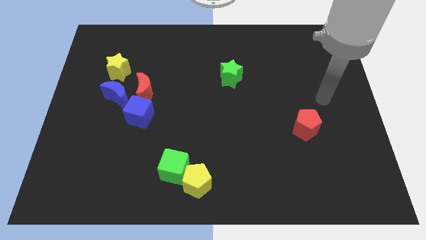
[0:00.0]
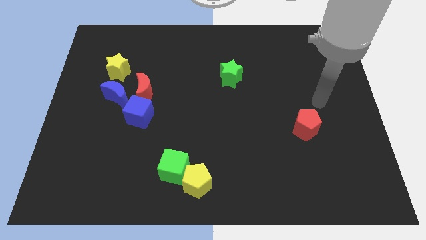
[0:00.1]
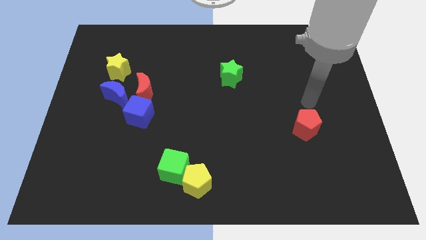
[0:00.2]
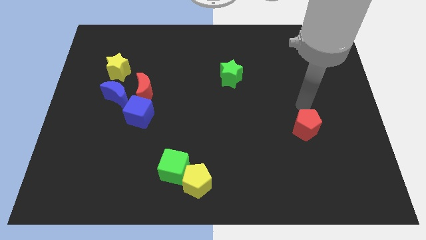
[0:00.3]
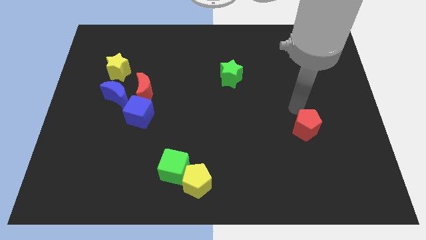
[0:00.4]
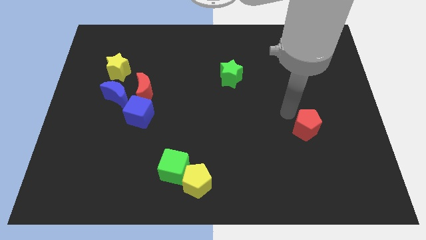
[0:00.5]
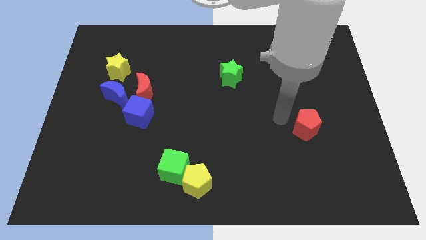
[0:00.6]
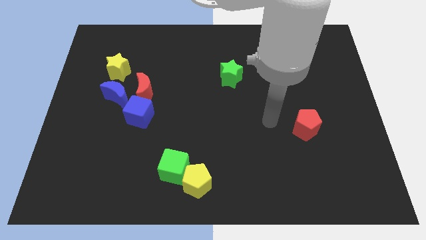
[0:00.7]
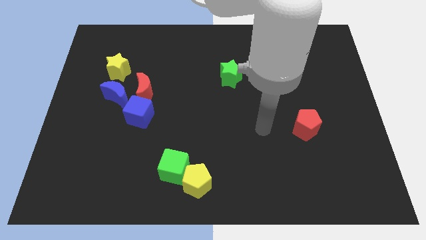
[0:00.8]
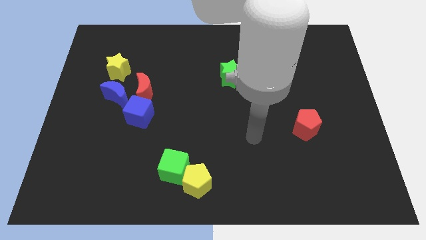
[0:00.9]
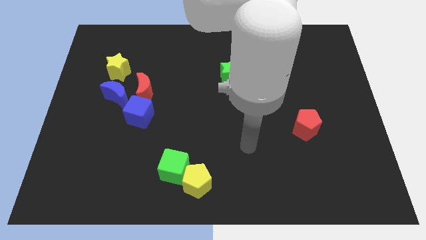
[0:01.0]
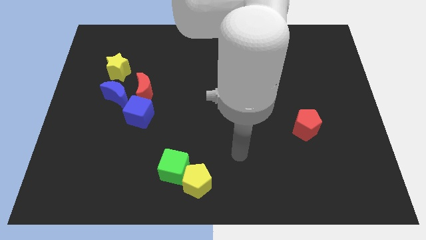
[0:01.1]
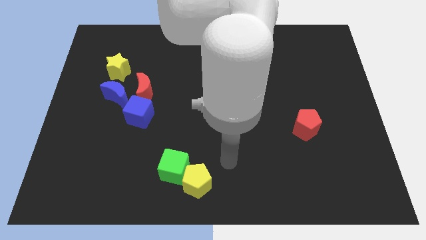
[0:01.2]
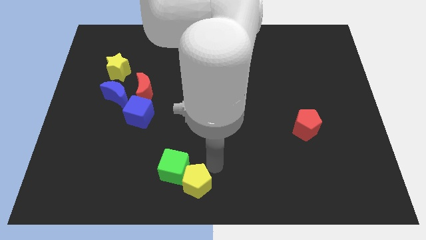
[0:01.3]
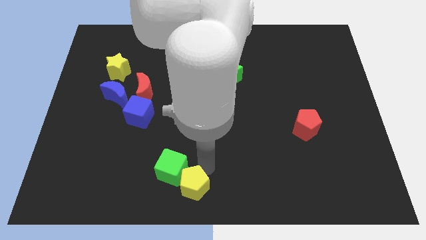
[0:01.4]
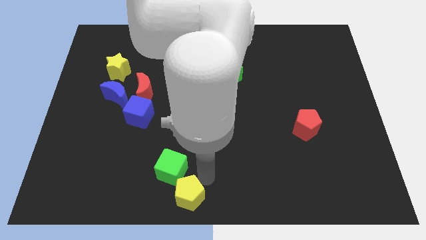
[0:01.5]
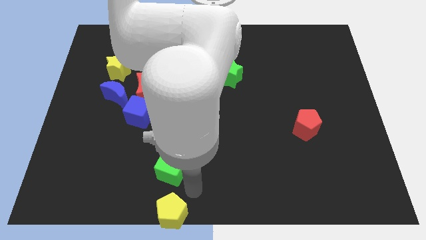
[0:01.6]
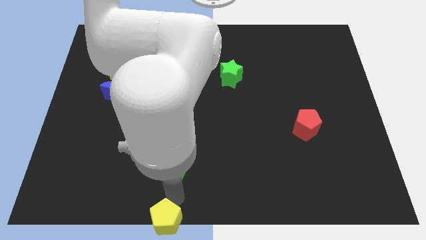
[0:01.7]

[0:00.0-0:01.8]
separate the green cube from the yellow pentagon

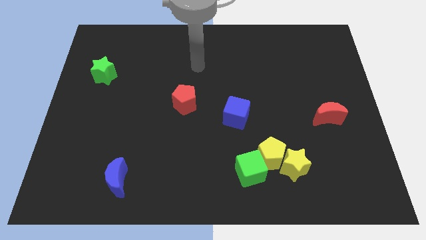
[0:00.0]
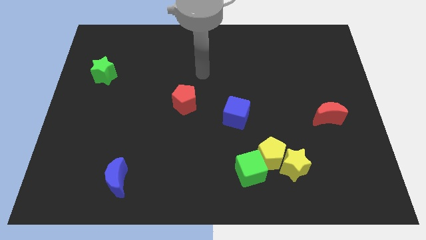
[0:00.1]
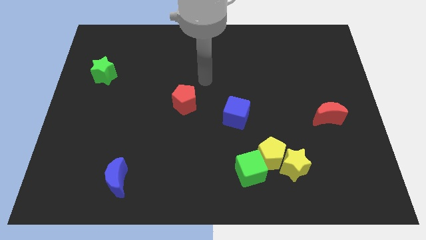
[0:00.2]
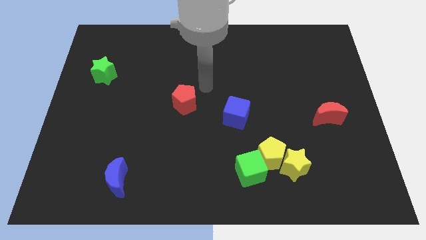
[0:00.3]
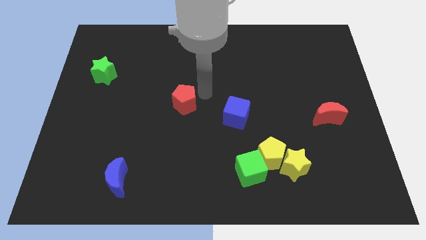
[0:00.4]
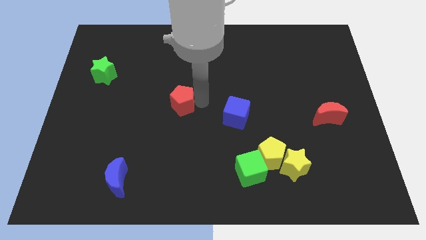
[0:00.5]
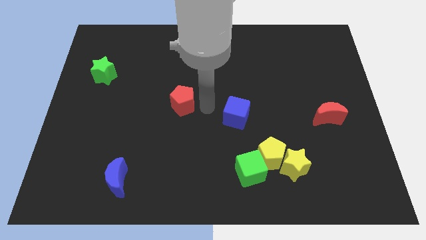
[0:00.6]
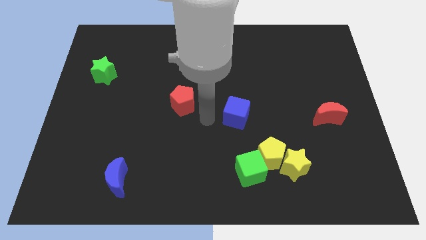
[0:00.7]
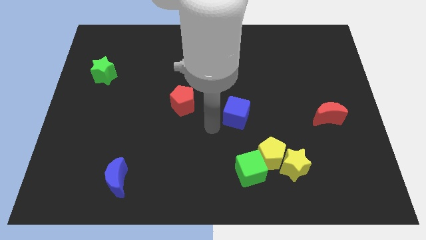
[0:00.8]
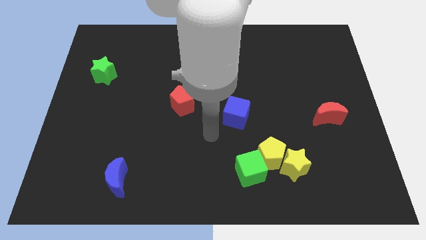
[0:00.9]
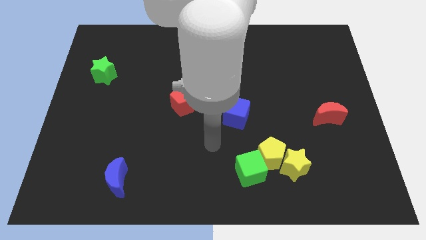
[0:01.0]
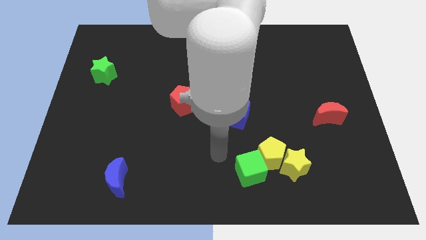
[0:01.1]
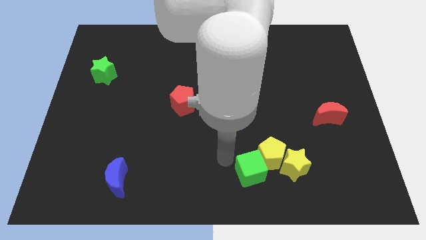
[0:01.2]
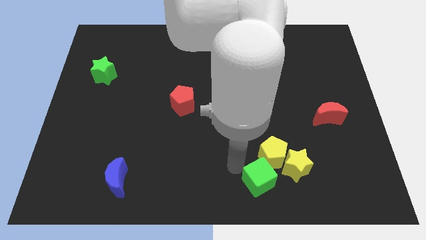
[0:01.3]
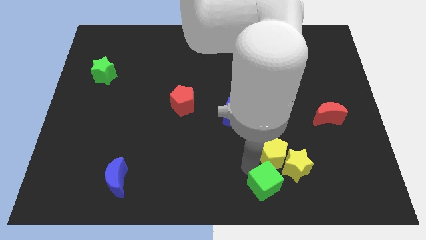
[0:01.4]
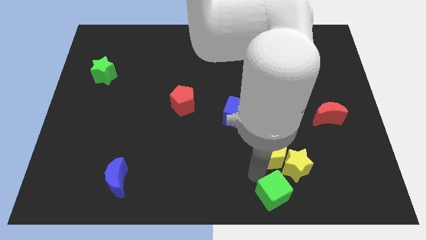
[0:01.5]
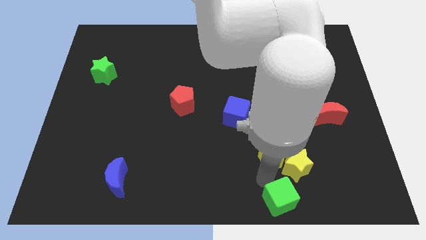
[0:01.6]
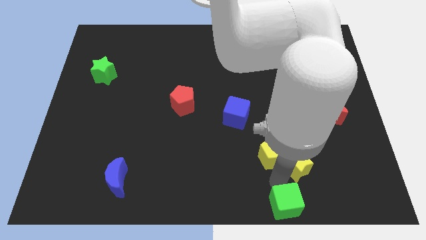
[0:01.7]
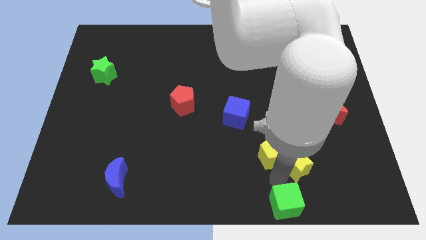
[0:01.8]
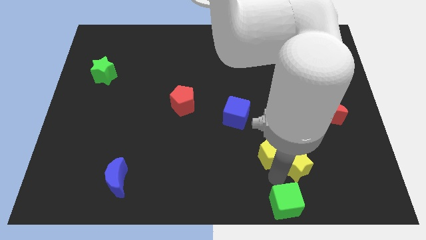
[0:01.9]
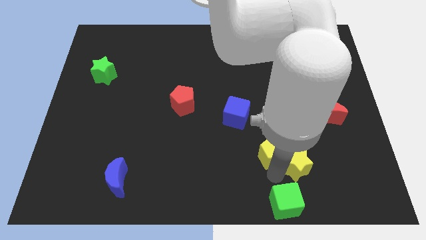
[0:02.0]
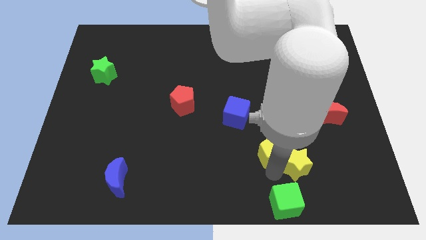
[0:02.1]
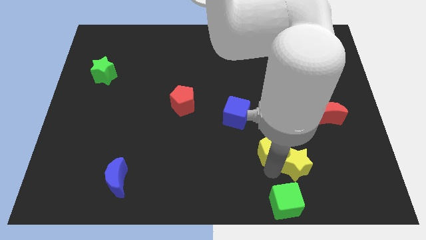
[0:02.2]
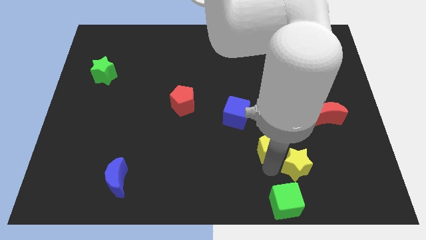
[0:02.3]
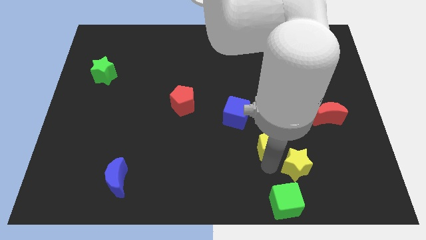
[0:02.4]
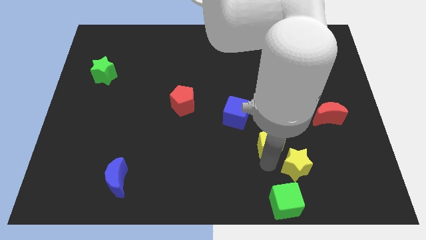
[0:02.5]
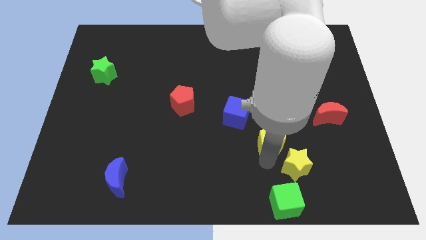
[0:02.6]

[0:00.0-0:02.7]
move the yellow pentagon away from the yellow star and green cube

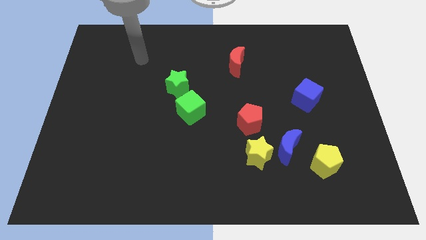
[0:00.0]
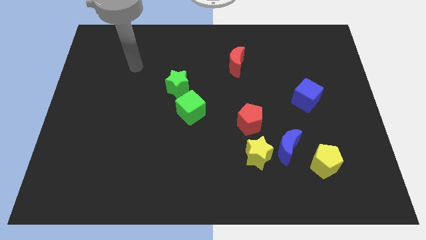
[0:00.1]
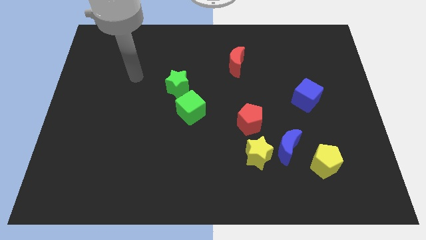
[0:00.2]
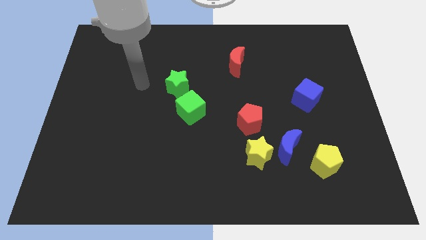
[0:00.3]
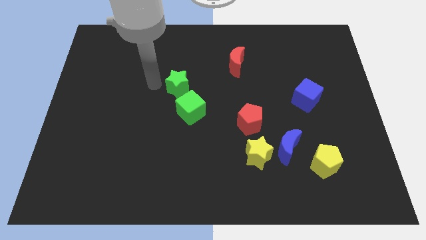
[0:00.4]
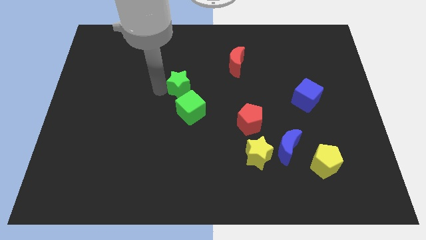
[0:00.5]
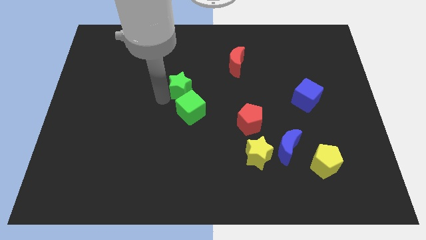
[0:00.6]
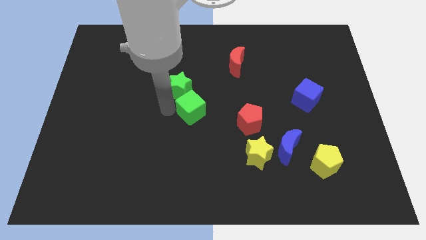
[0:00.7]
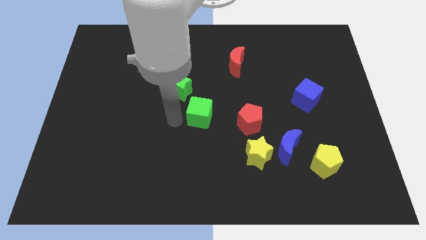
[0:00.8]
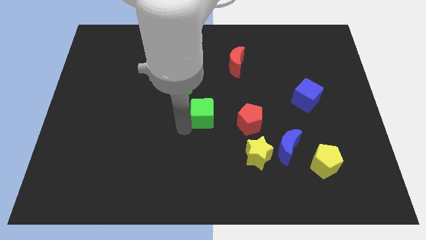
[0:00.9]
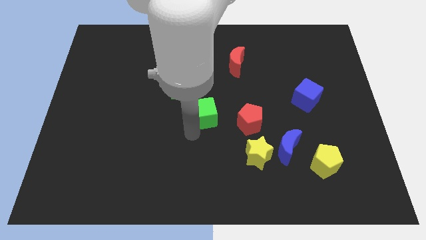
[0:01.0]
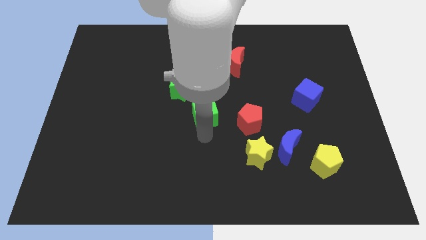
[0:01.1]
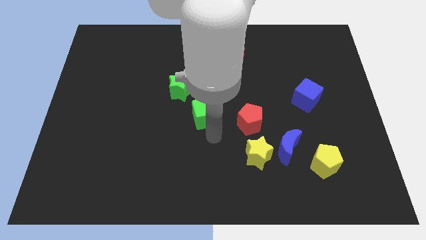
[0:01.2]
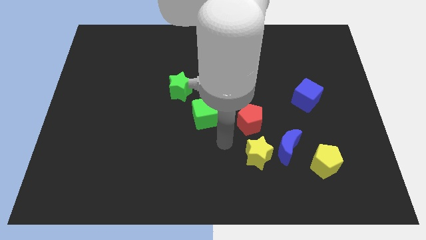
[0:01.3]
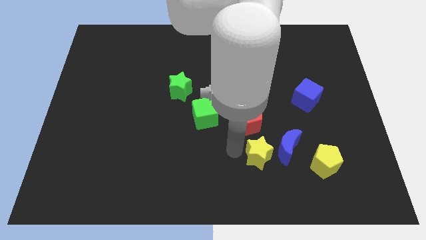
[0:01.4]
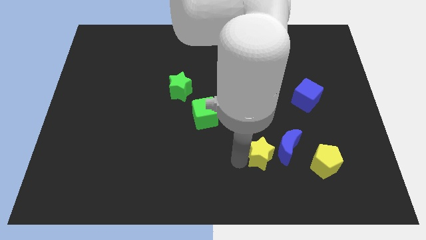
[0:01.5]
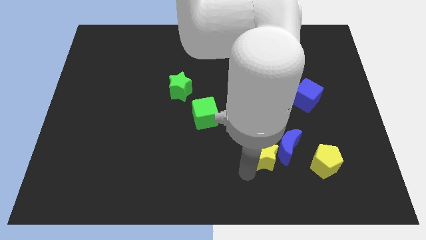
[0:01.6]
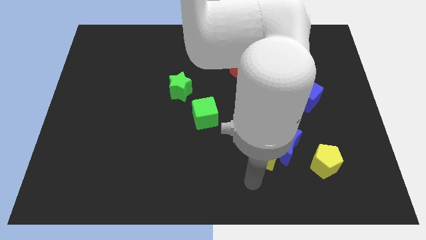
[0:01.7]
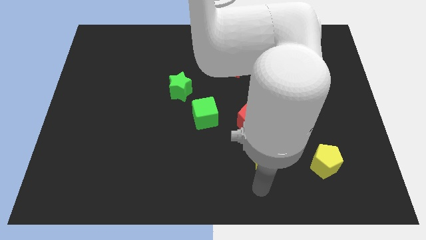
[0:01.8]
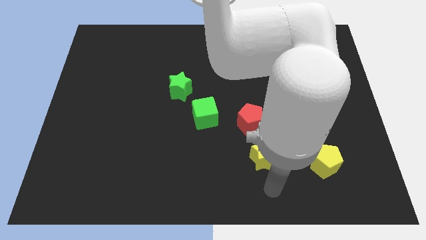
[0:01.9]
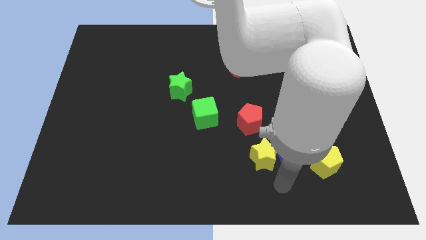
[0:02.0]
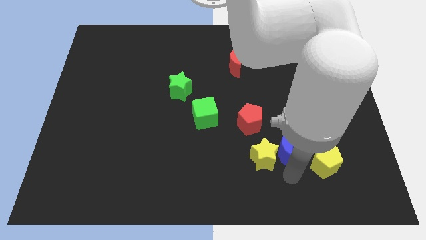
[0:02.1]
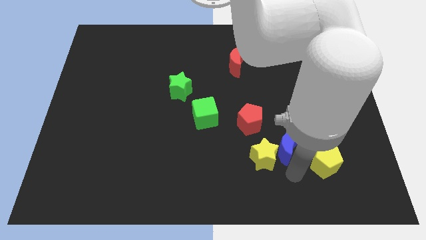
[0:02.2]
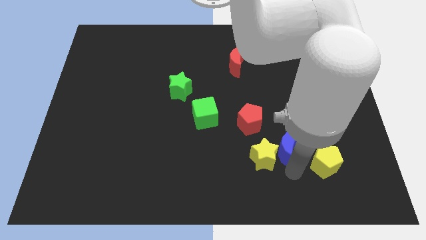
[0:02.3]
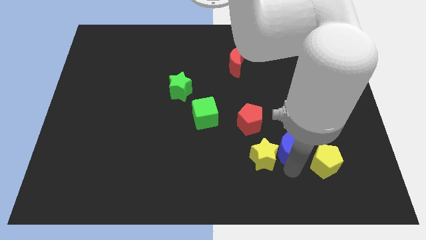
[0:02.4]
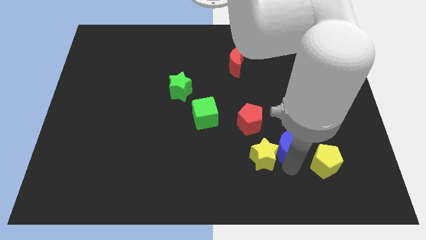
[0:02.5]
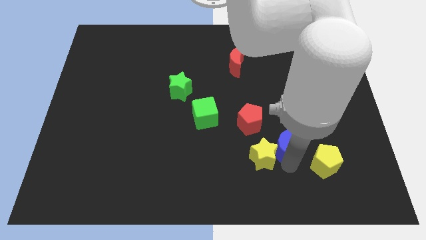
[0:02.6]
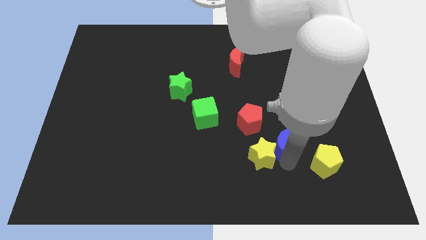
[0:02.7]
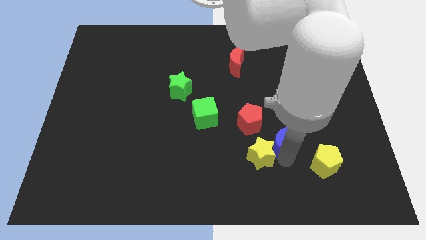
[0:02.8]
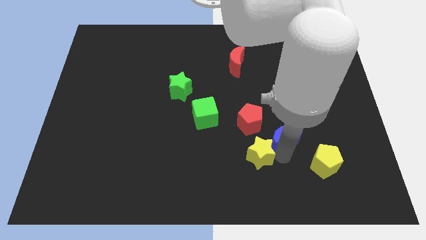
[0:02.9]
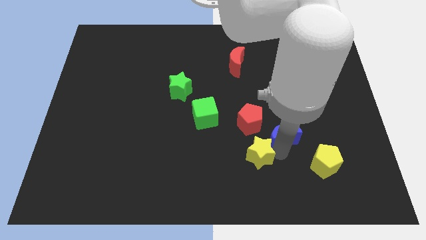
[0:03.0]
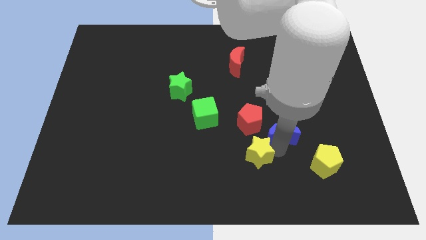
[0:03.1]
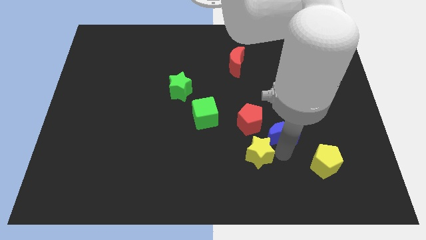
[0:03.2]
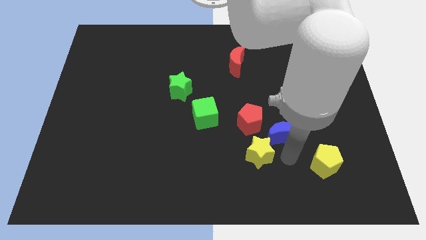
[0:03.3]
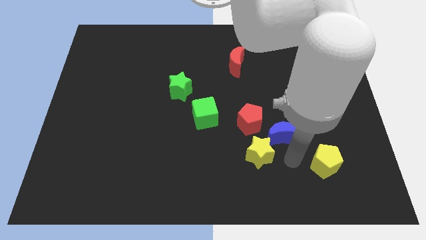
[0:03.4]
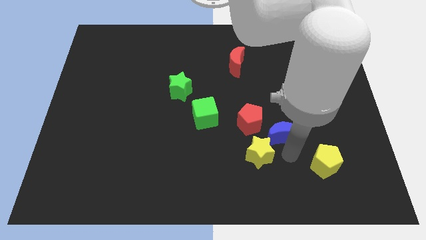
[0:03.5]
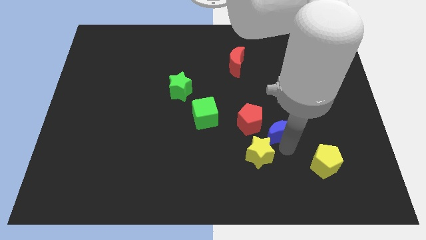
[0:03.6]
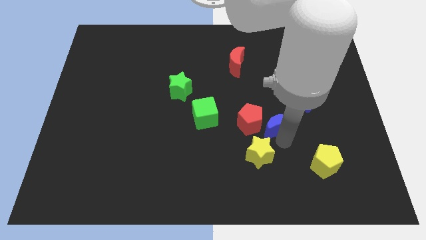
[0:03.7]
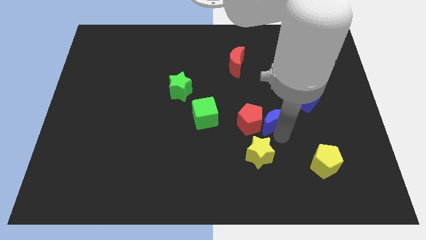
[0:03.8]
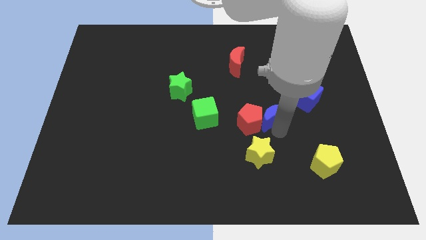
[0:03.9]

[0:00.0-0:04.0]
pull the blue moon apart from the yellow star and yellow pentagon

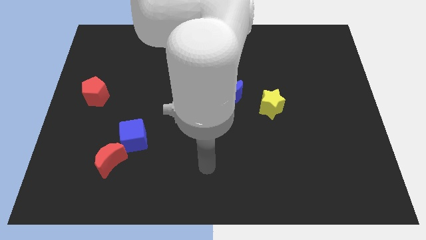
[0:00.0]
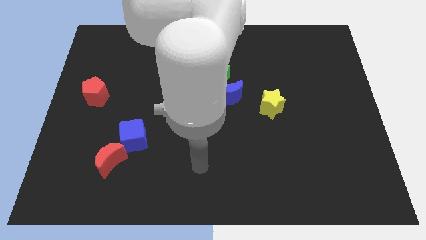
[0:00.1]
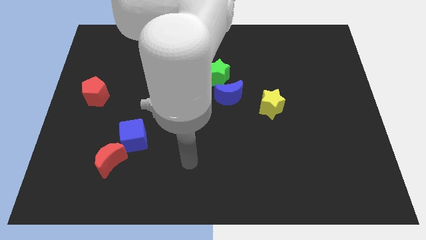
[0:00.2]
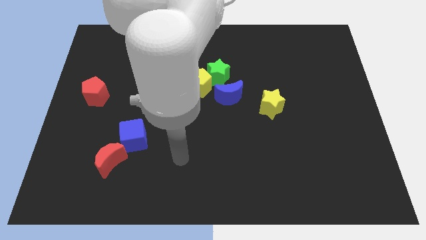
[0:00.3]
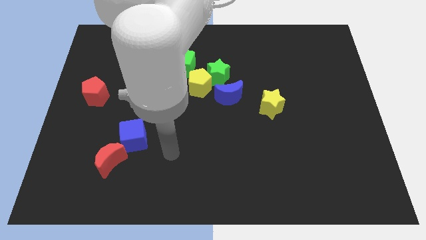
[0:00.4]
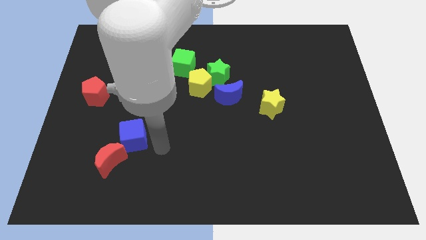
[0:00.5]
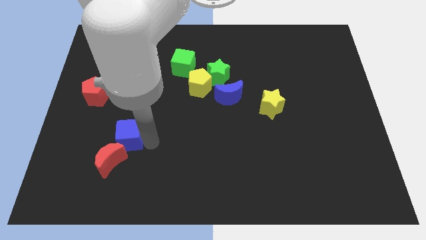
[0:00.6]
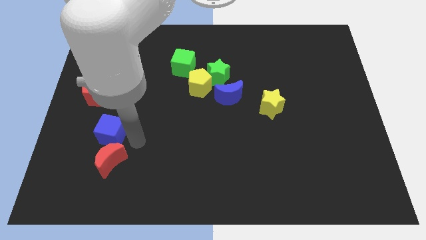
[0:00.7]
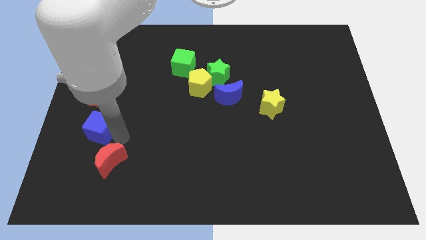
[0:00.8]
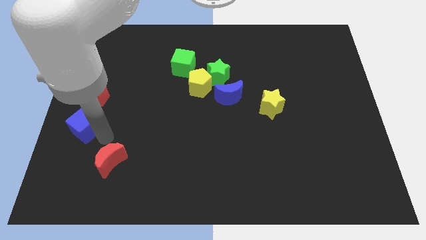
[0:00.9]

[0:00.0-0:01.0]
move the red moon away from the blue cube
